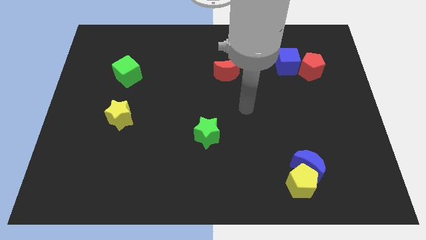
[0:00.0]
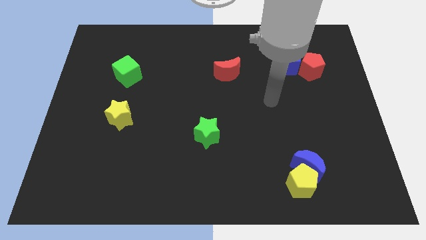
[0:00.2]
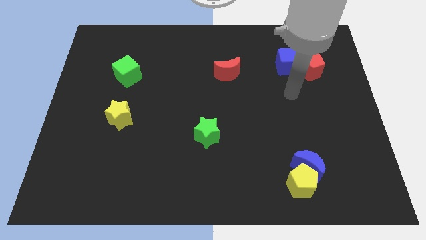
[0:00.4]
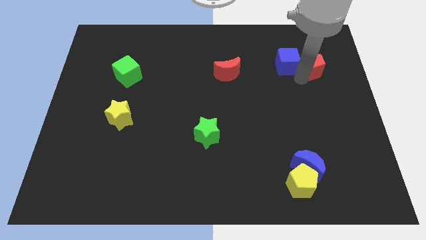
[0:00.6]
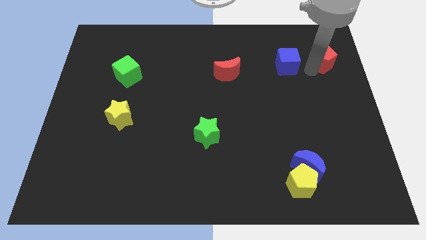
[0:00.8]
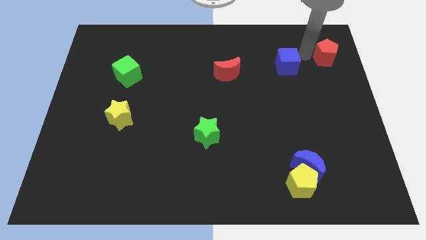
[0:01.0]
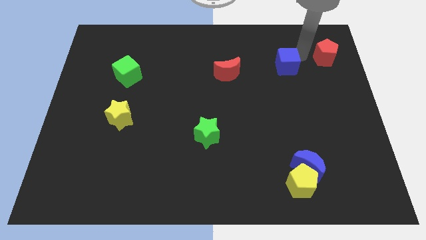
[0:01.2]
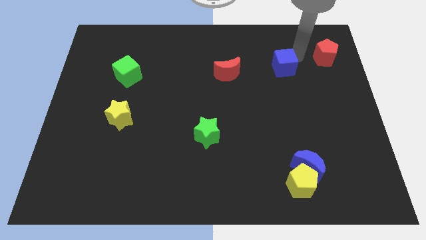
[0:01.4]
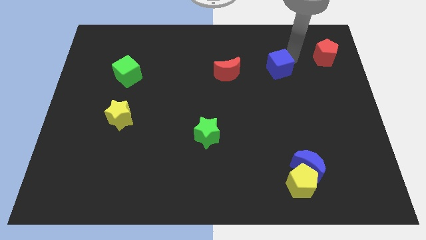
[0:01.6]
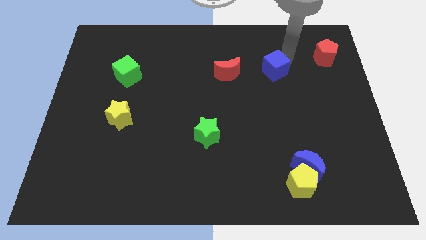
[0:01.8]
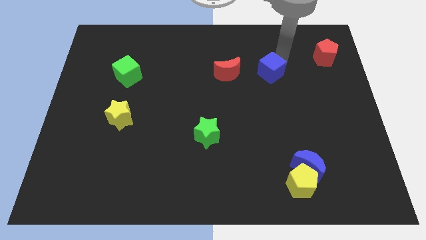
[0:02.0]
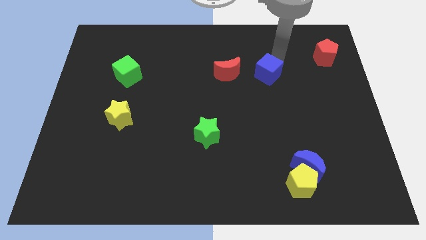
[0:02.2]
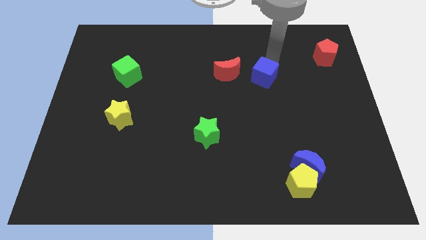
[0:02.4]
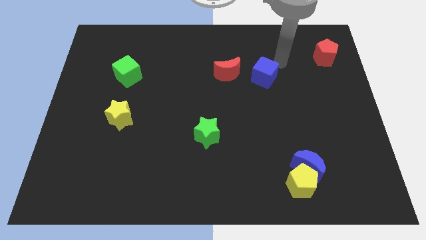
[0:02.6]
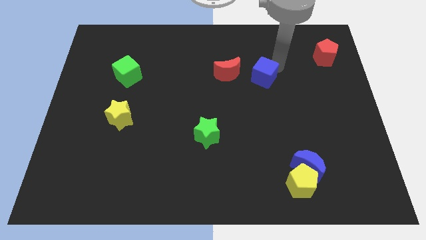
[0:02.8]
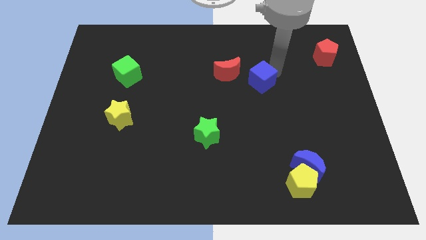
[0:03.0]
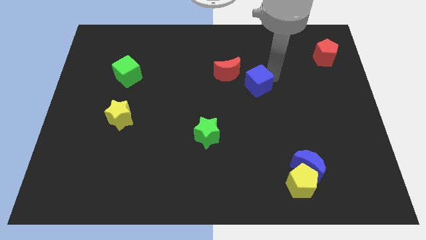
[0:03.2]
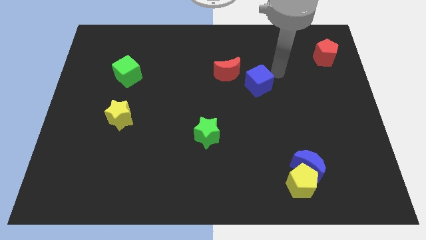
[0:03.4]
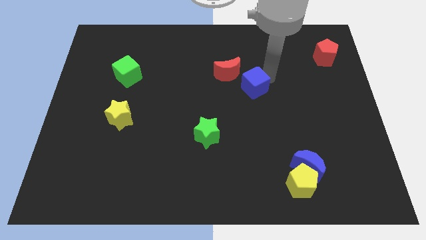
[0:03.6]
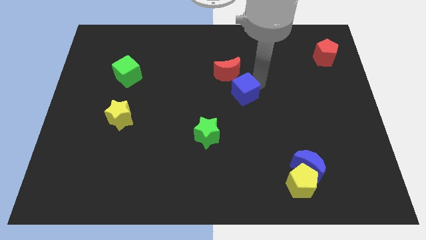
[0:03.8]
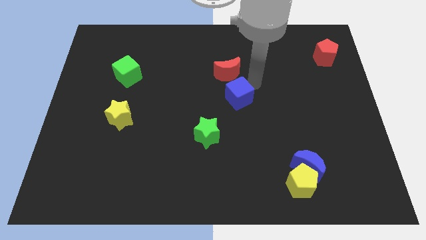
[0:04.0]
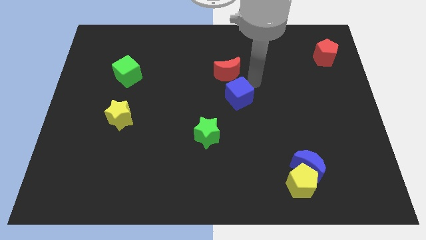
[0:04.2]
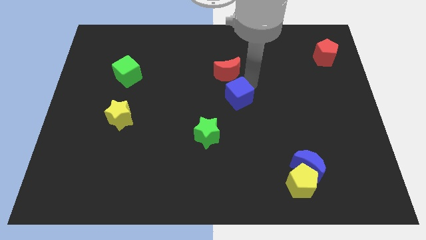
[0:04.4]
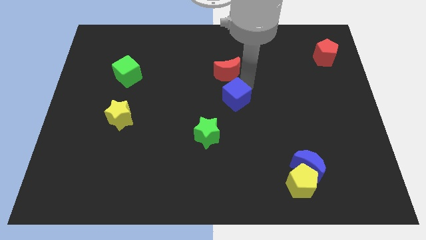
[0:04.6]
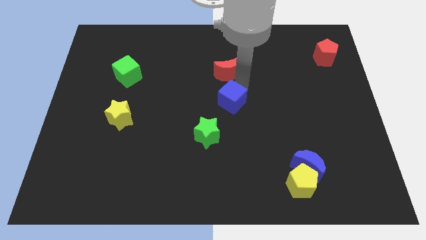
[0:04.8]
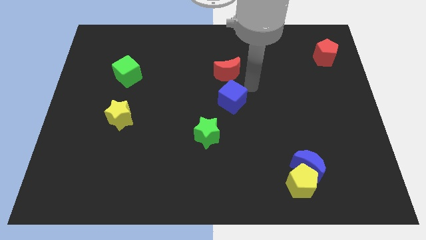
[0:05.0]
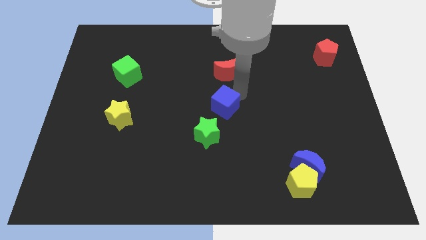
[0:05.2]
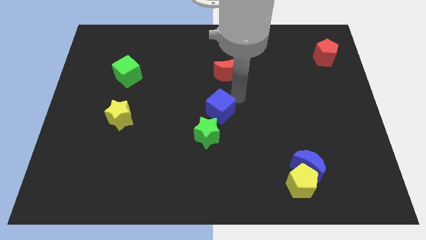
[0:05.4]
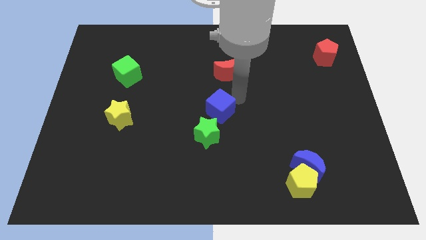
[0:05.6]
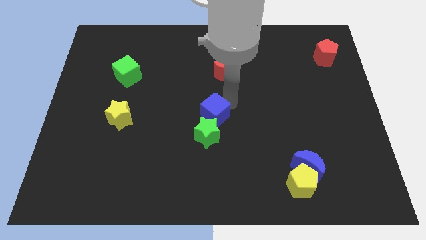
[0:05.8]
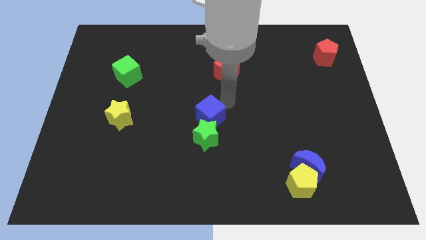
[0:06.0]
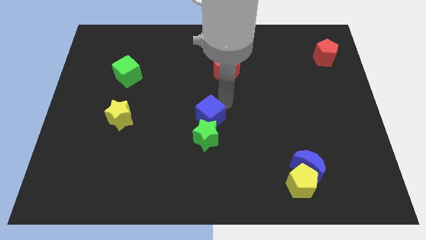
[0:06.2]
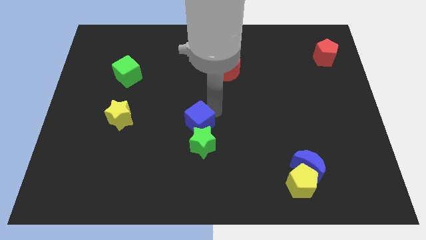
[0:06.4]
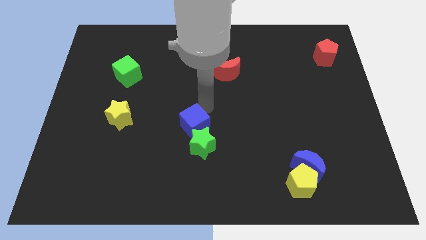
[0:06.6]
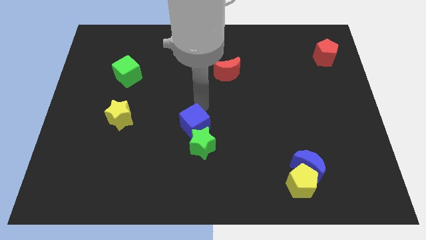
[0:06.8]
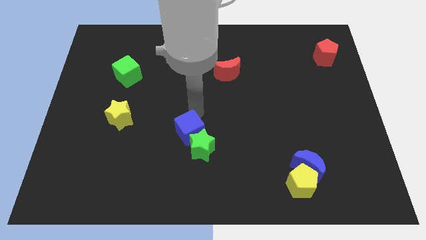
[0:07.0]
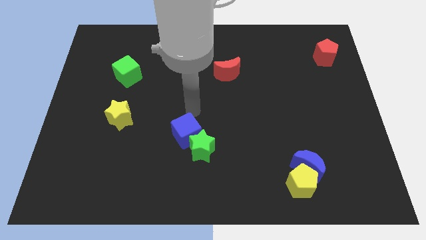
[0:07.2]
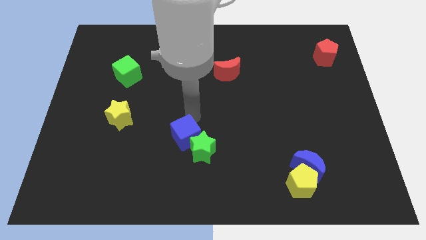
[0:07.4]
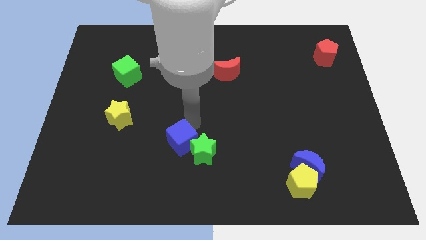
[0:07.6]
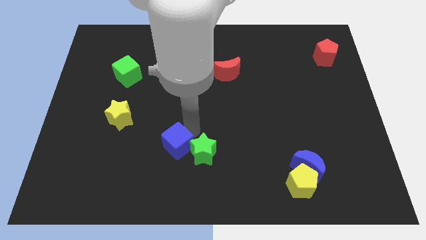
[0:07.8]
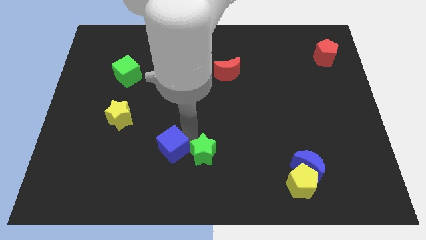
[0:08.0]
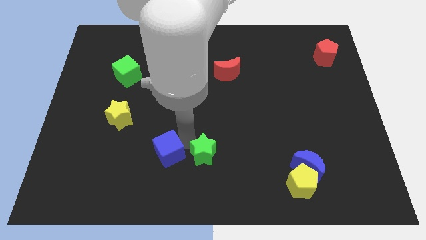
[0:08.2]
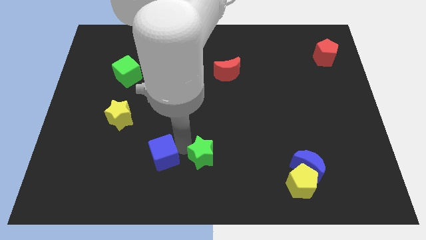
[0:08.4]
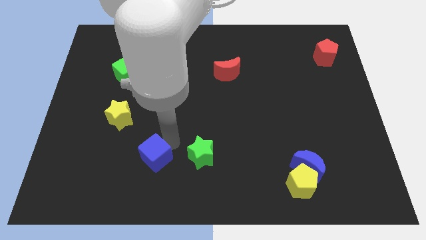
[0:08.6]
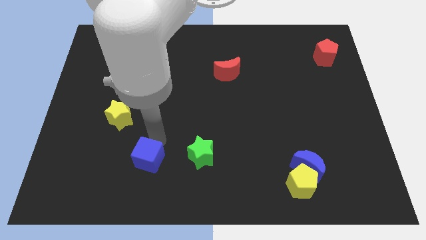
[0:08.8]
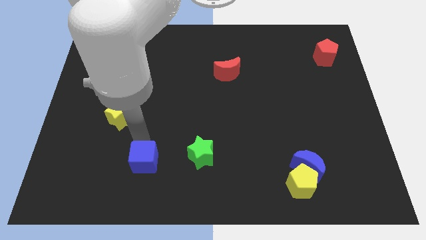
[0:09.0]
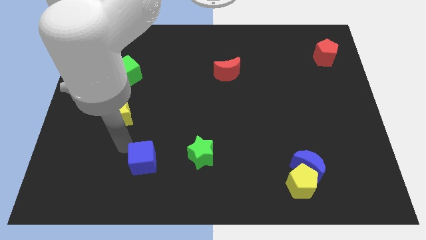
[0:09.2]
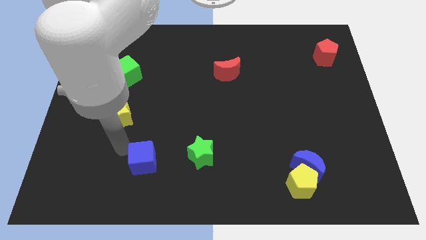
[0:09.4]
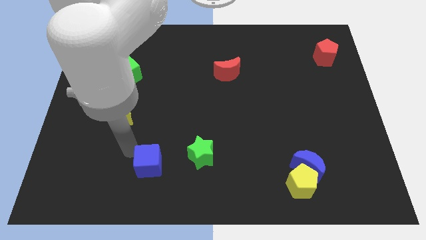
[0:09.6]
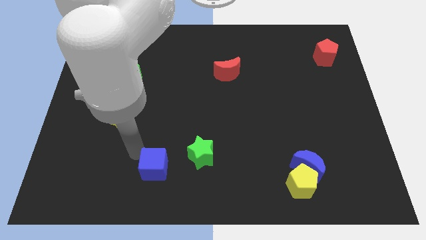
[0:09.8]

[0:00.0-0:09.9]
slide the blue cube to the bottom left of the green star
